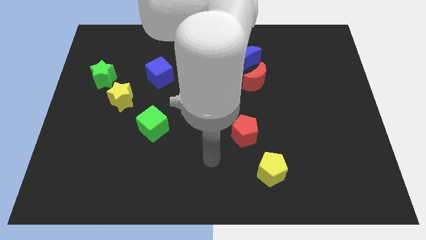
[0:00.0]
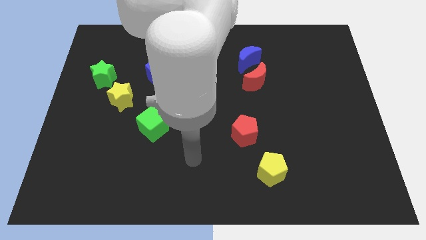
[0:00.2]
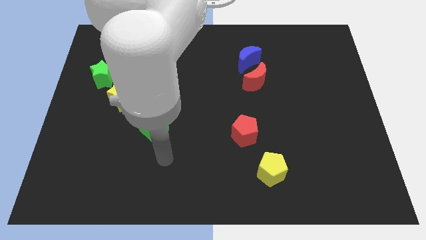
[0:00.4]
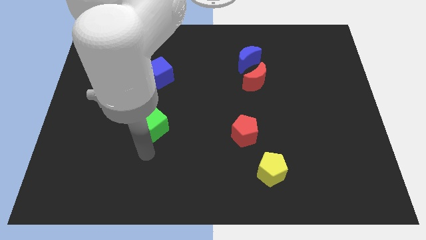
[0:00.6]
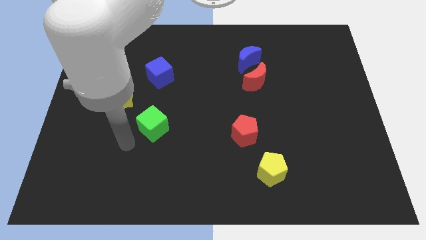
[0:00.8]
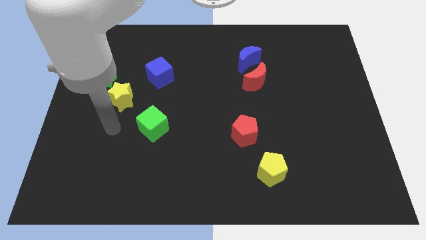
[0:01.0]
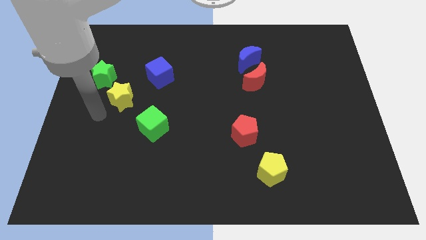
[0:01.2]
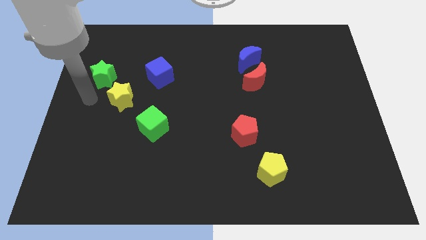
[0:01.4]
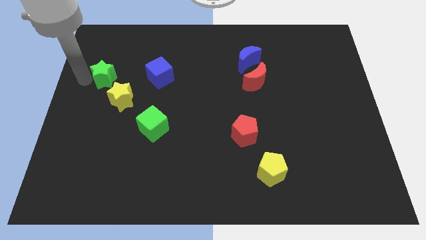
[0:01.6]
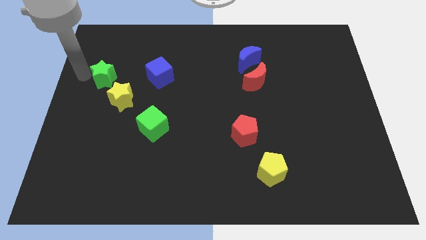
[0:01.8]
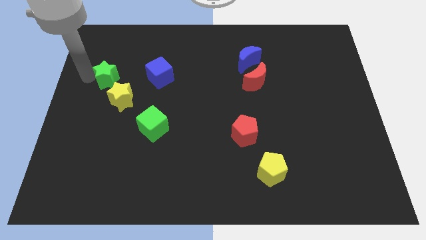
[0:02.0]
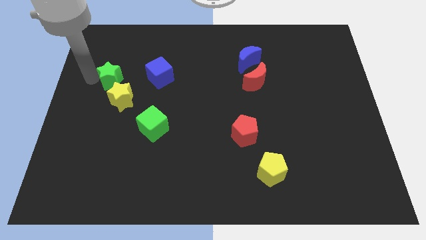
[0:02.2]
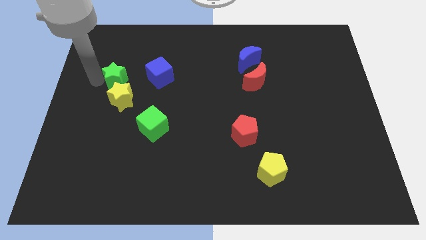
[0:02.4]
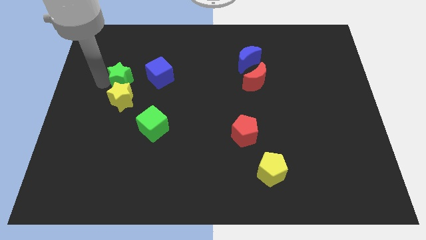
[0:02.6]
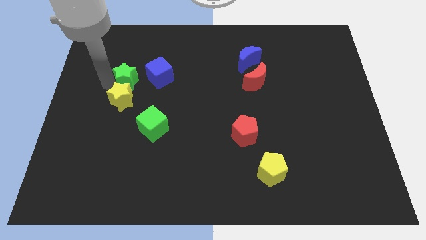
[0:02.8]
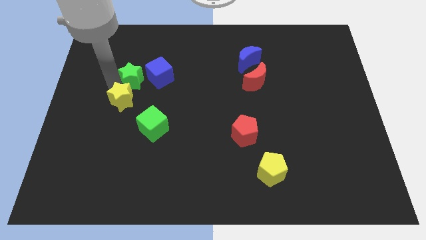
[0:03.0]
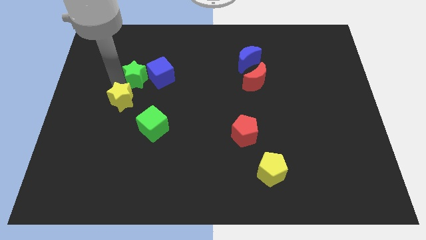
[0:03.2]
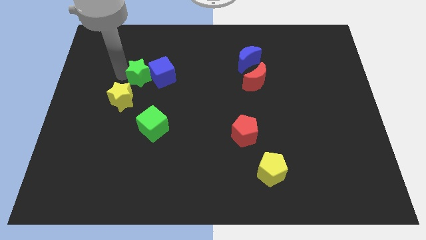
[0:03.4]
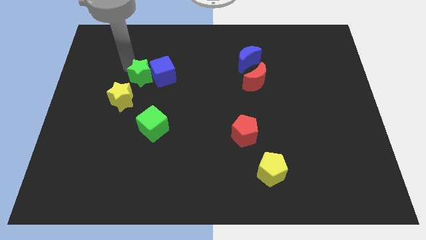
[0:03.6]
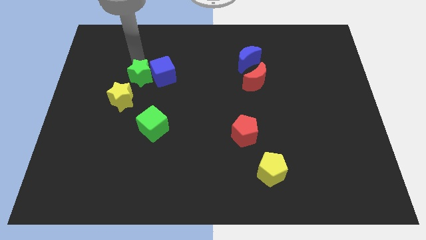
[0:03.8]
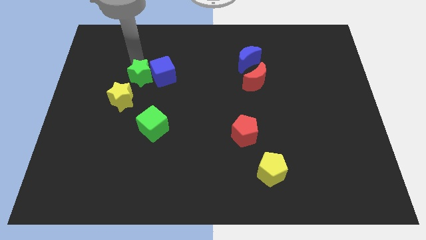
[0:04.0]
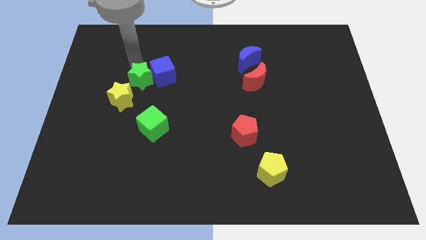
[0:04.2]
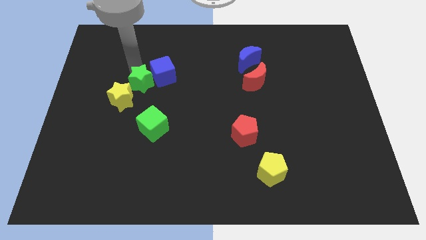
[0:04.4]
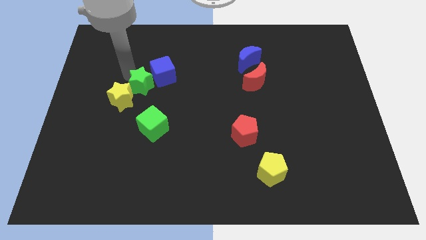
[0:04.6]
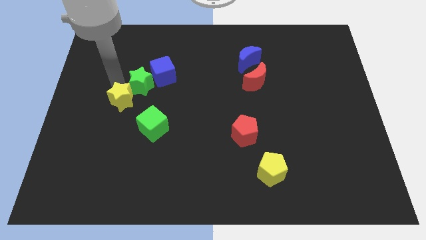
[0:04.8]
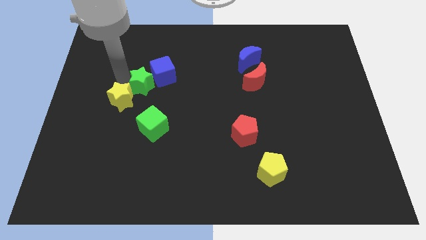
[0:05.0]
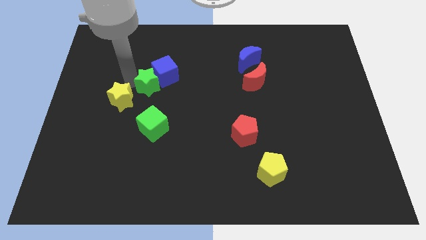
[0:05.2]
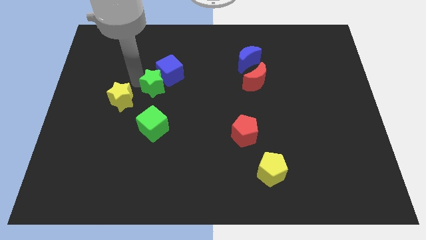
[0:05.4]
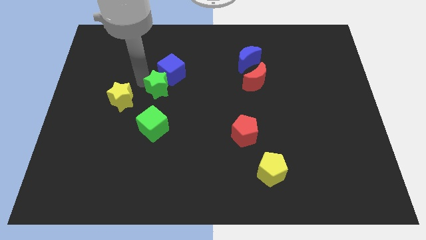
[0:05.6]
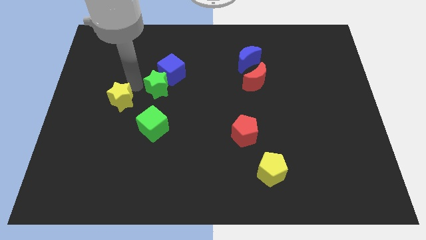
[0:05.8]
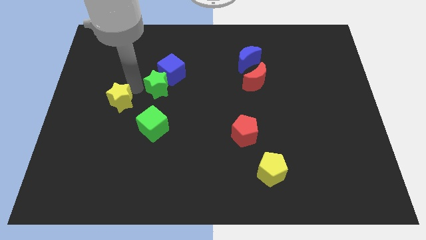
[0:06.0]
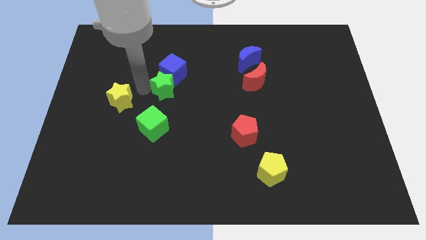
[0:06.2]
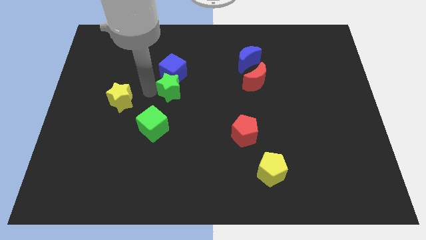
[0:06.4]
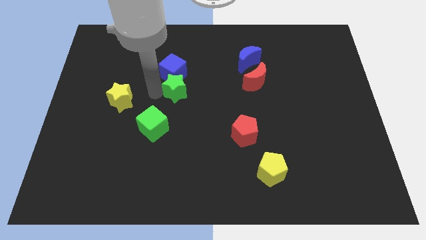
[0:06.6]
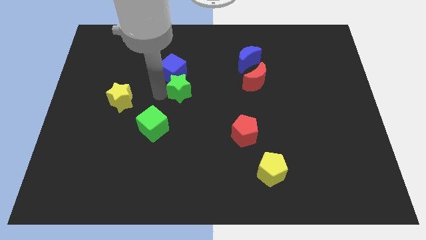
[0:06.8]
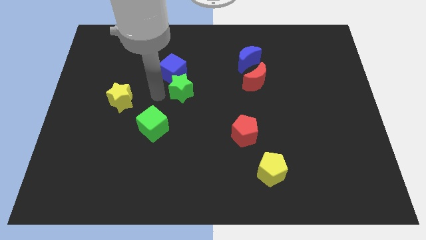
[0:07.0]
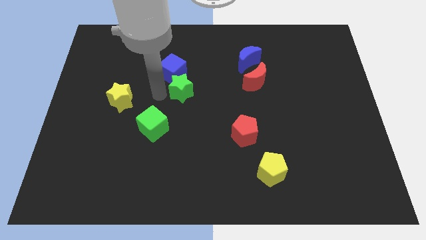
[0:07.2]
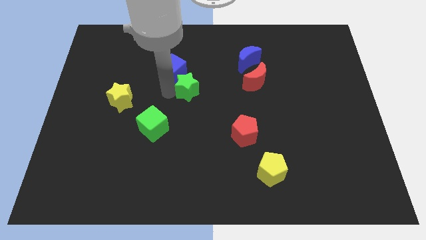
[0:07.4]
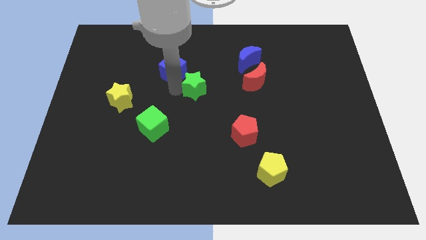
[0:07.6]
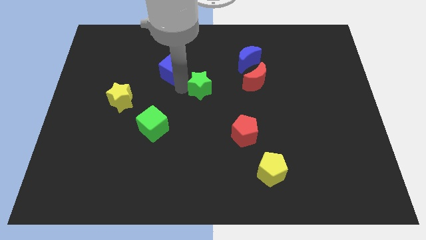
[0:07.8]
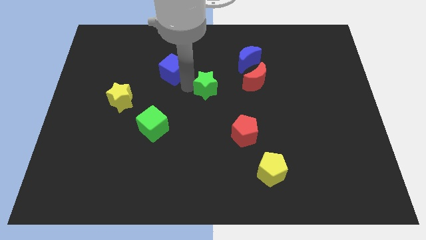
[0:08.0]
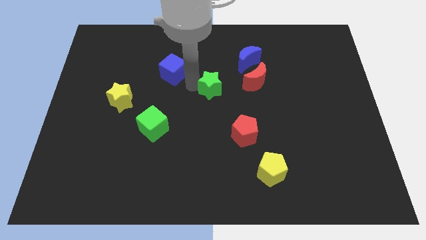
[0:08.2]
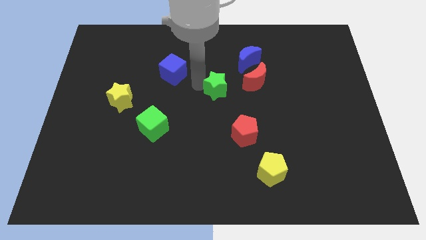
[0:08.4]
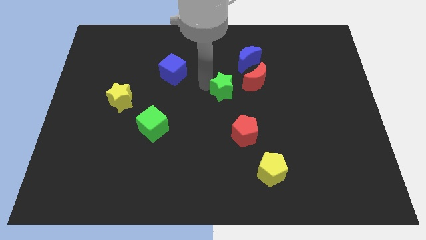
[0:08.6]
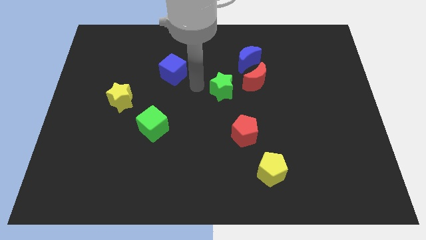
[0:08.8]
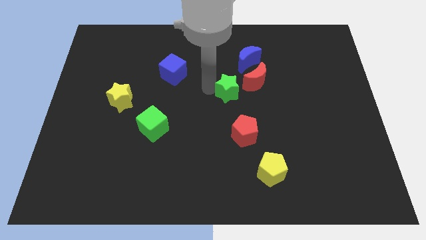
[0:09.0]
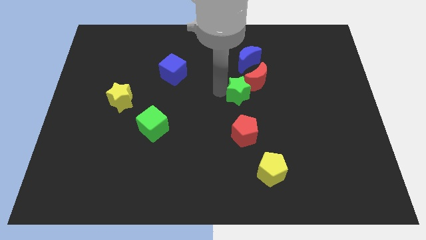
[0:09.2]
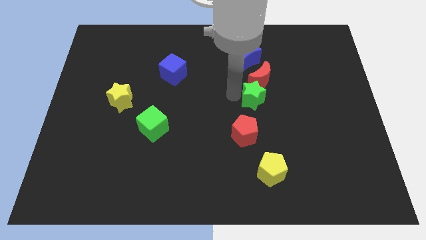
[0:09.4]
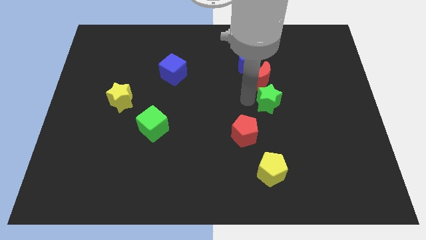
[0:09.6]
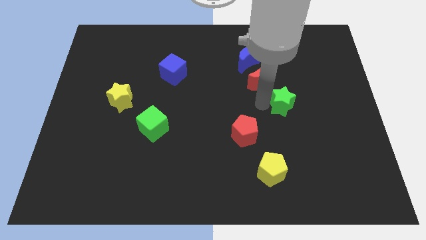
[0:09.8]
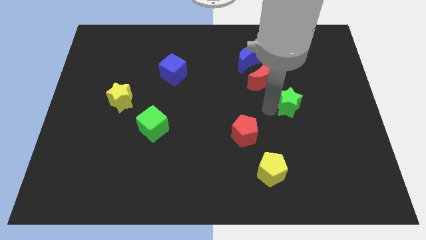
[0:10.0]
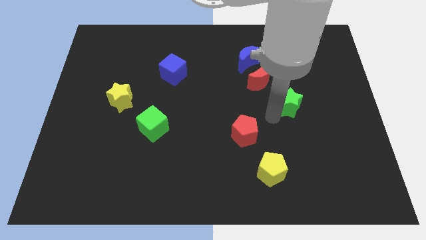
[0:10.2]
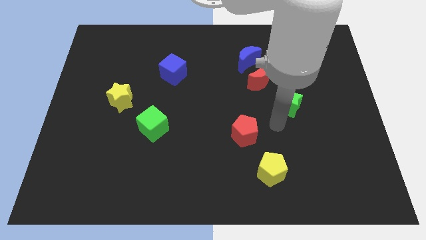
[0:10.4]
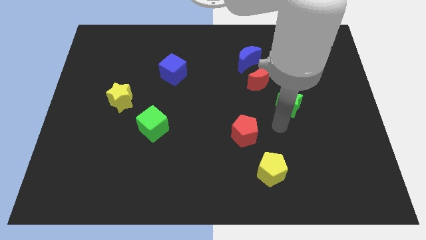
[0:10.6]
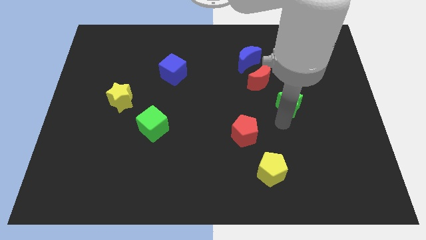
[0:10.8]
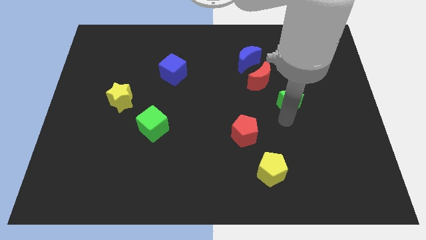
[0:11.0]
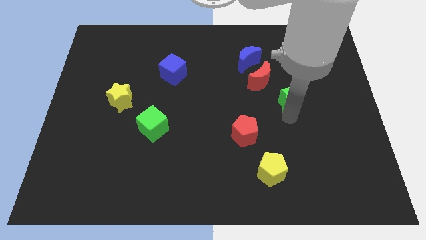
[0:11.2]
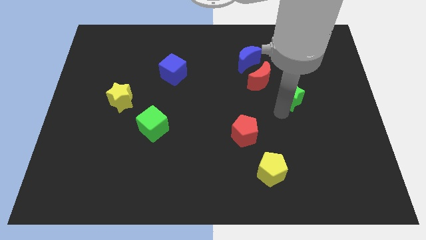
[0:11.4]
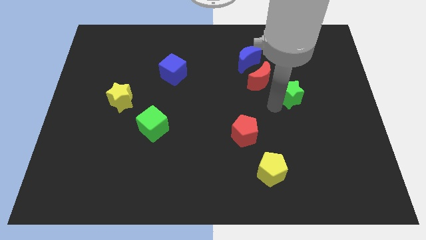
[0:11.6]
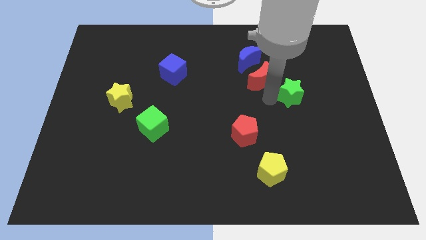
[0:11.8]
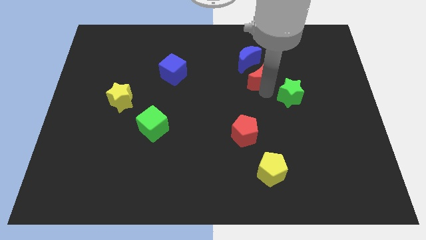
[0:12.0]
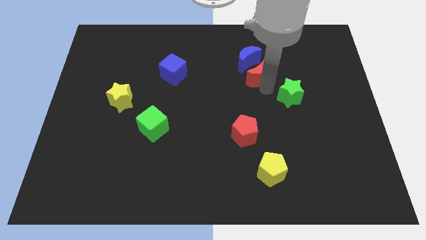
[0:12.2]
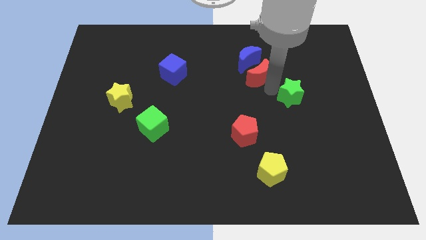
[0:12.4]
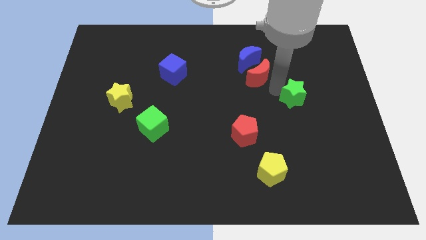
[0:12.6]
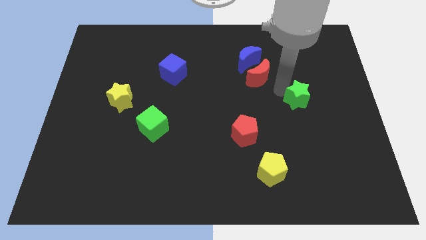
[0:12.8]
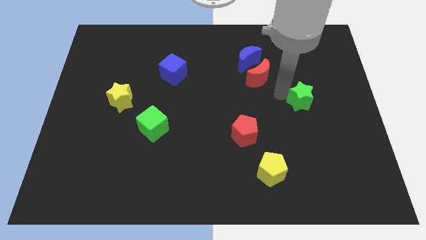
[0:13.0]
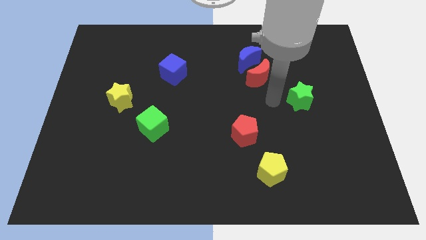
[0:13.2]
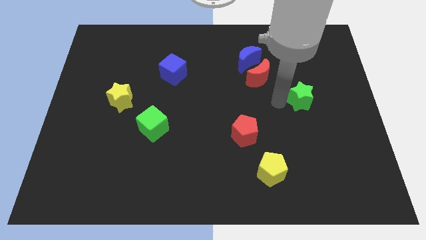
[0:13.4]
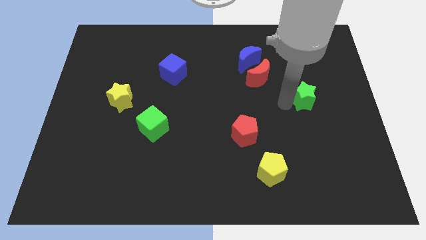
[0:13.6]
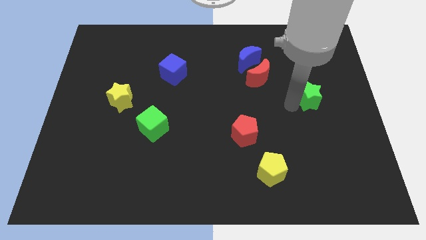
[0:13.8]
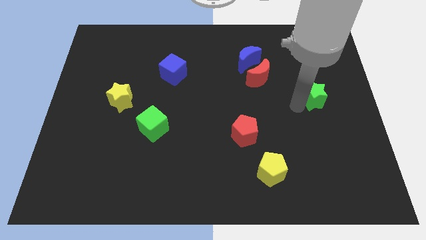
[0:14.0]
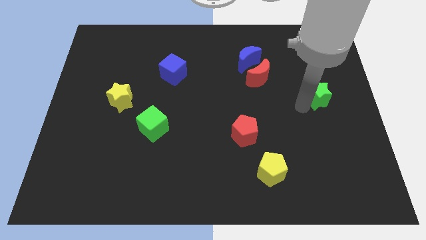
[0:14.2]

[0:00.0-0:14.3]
move the green star to the right side of the board
